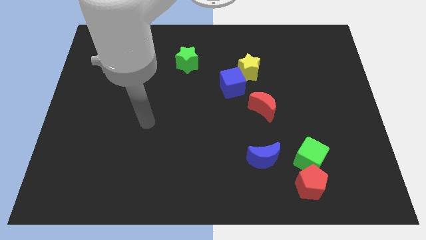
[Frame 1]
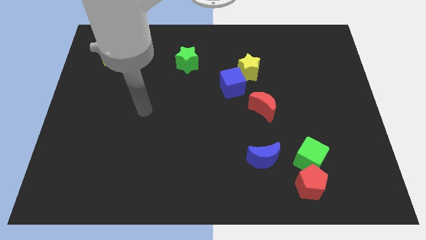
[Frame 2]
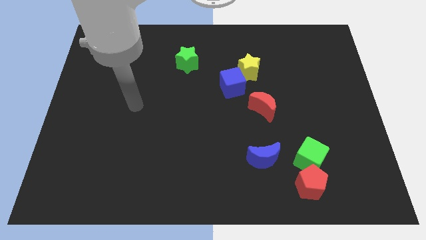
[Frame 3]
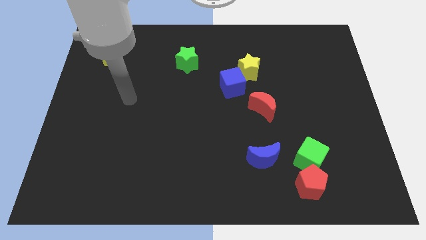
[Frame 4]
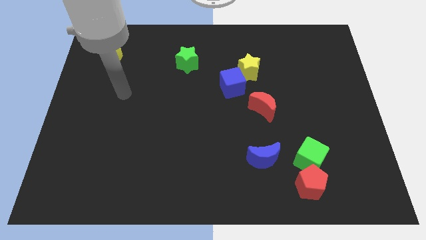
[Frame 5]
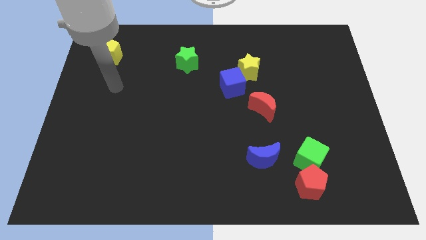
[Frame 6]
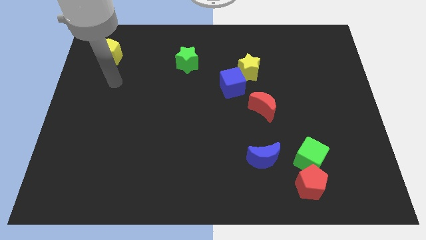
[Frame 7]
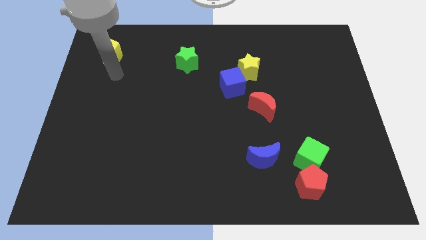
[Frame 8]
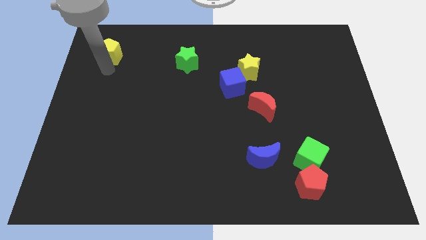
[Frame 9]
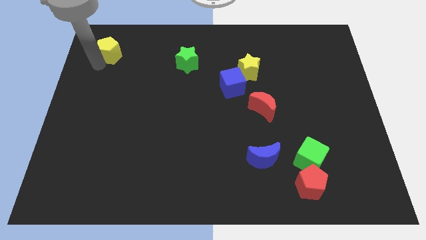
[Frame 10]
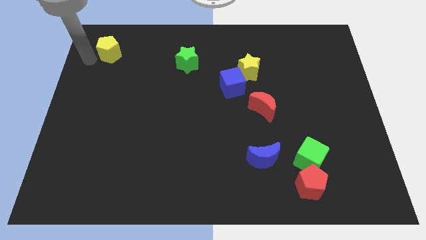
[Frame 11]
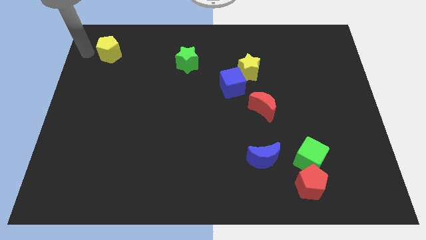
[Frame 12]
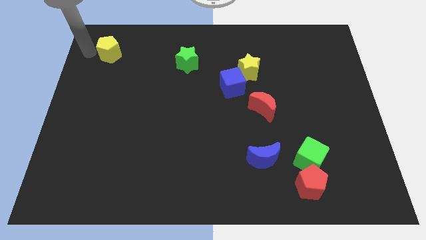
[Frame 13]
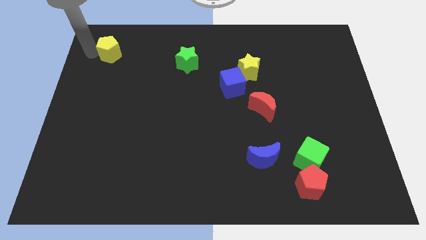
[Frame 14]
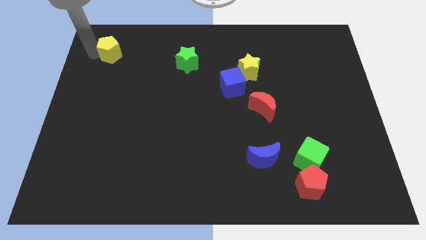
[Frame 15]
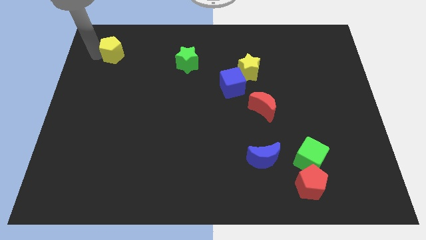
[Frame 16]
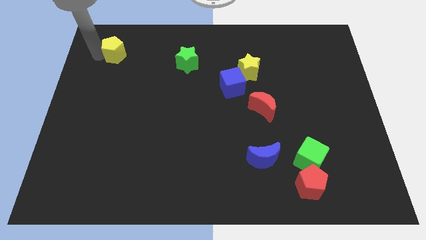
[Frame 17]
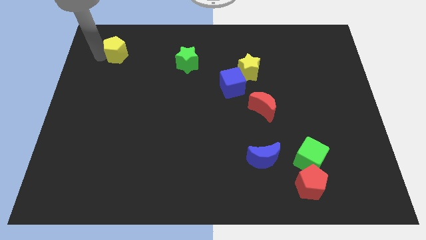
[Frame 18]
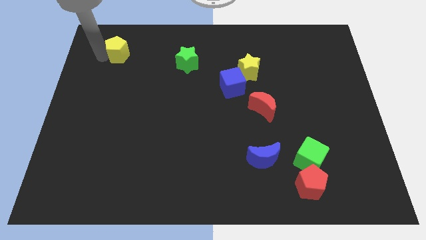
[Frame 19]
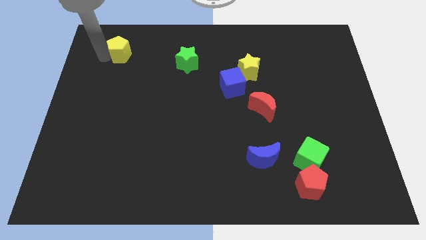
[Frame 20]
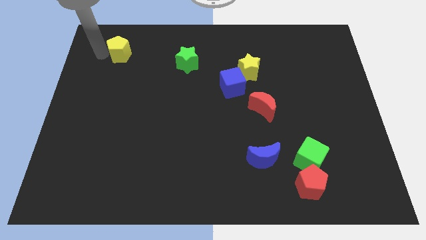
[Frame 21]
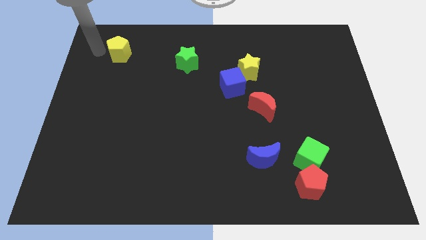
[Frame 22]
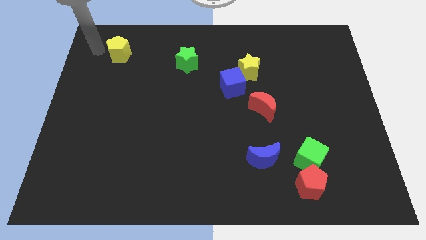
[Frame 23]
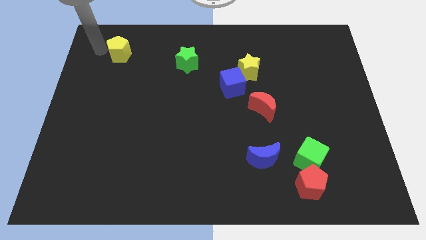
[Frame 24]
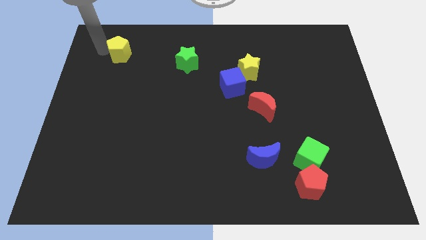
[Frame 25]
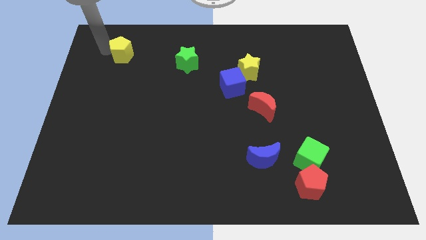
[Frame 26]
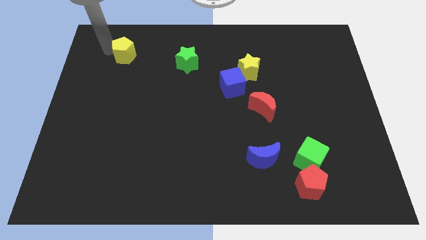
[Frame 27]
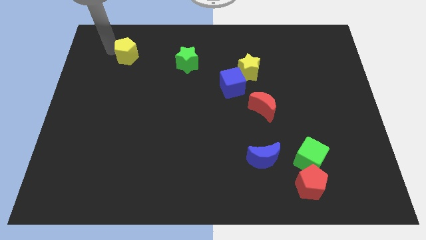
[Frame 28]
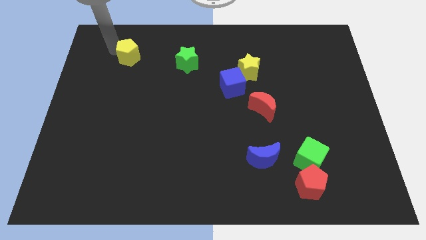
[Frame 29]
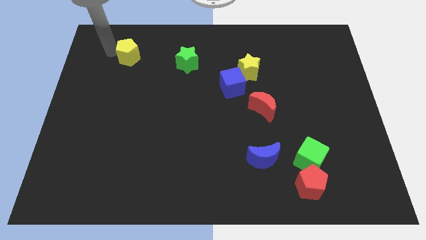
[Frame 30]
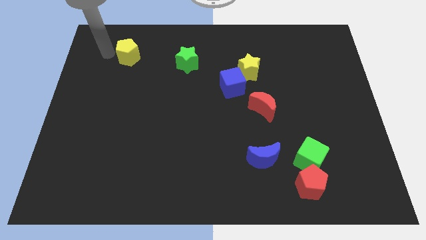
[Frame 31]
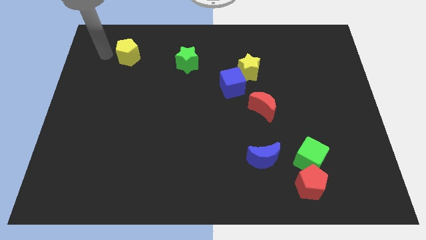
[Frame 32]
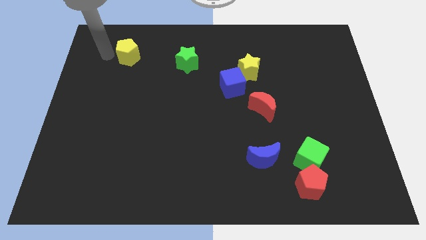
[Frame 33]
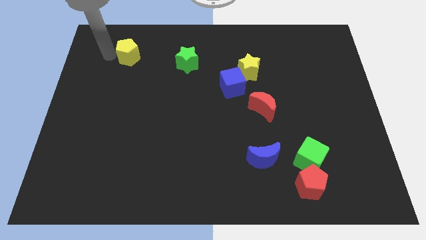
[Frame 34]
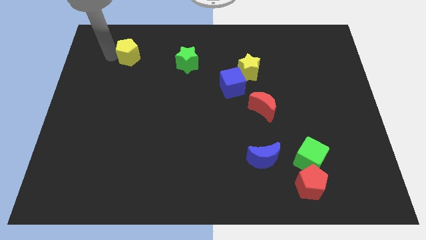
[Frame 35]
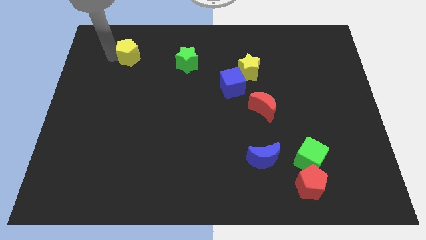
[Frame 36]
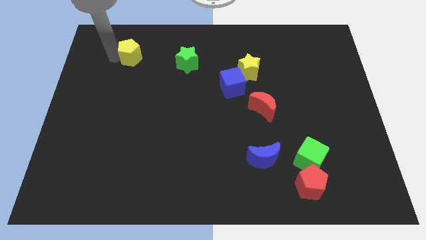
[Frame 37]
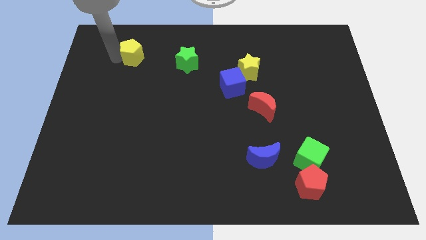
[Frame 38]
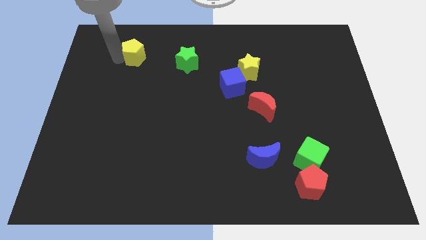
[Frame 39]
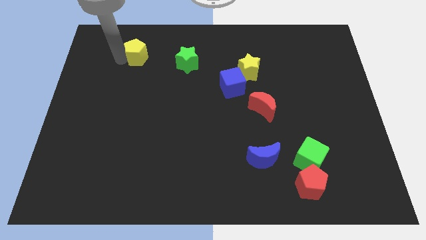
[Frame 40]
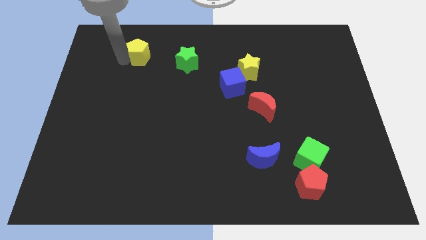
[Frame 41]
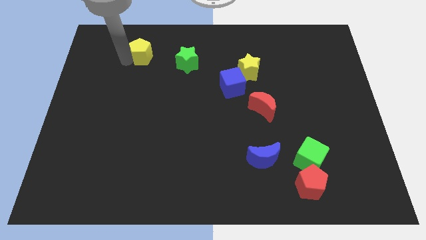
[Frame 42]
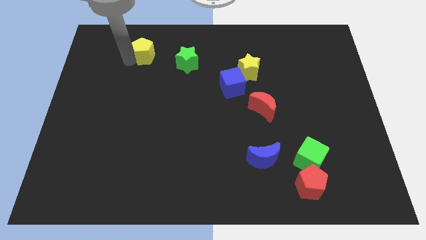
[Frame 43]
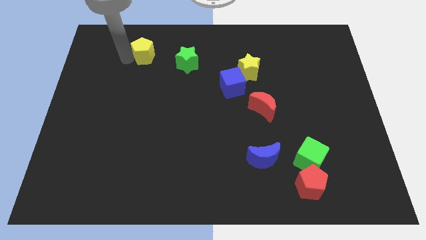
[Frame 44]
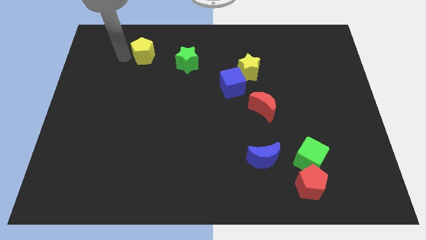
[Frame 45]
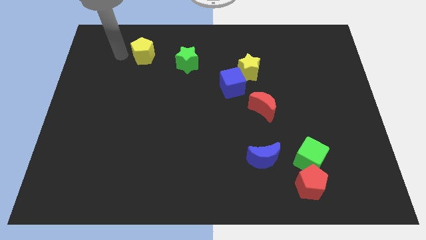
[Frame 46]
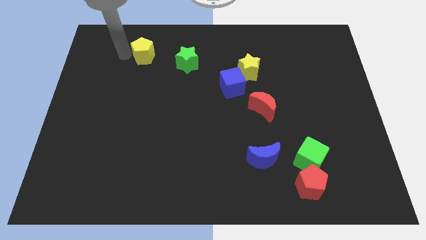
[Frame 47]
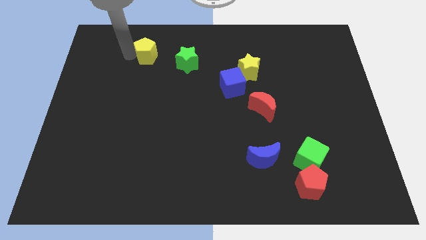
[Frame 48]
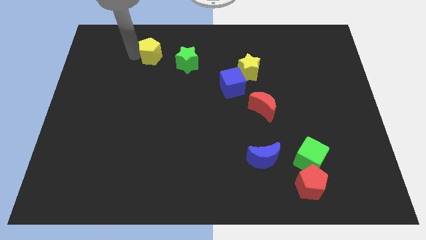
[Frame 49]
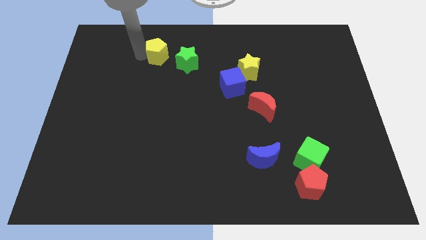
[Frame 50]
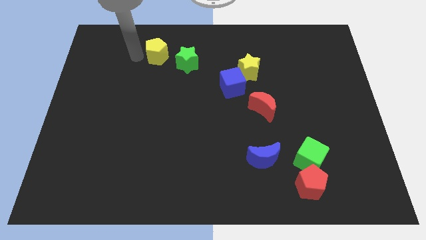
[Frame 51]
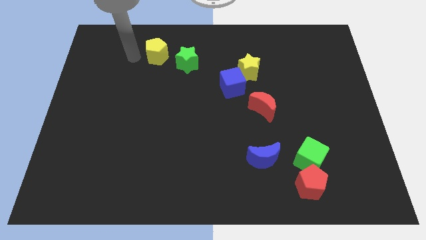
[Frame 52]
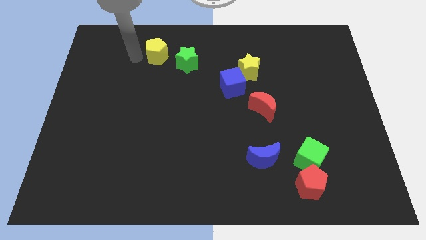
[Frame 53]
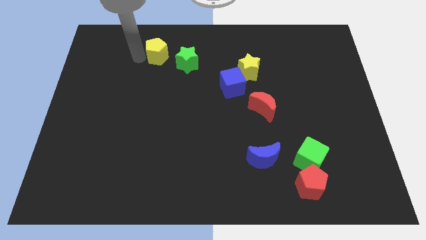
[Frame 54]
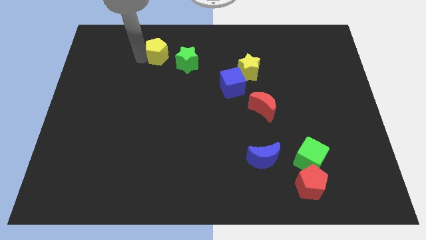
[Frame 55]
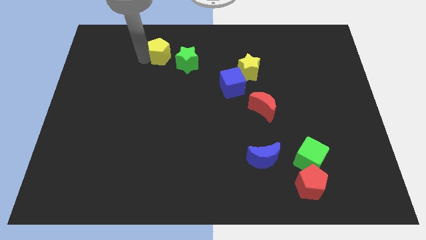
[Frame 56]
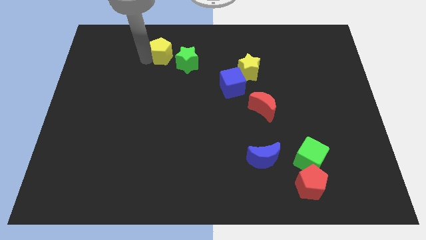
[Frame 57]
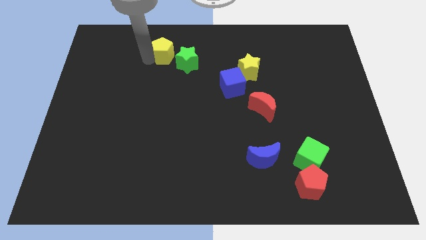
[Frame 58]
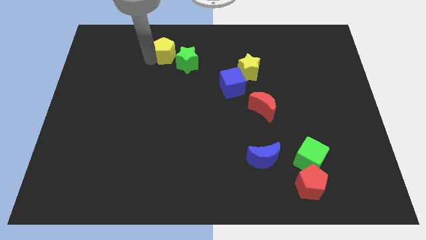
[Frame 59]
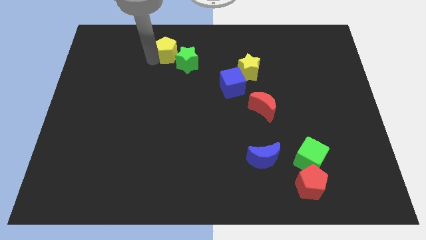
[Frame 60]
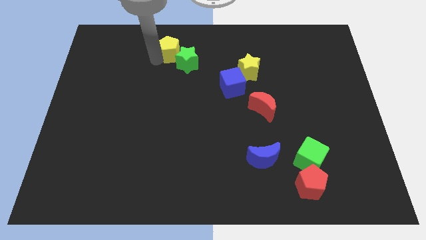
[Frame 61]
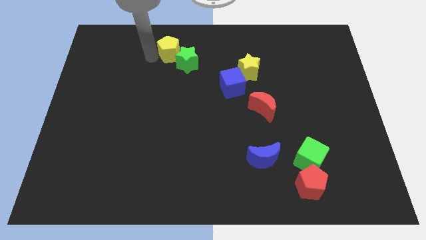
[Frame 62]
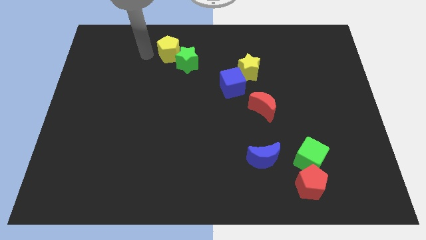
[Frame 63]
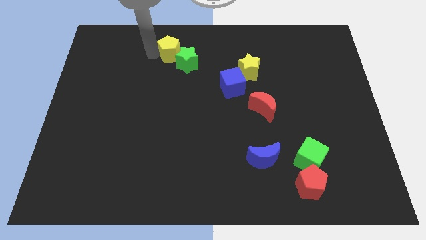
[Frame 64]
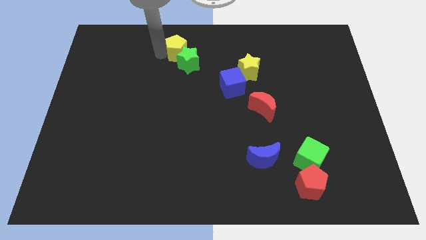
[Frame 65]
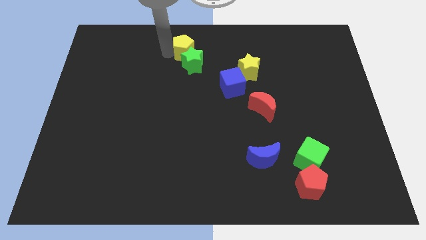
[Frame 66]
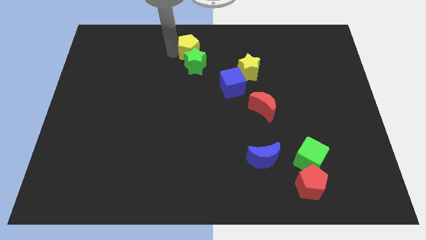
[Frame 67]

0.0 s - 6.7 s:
move the yellow pentagon right

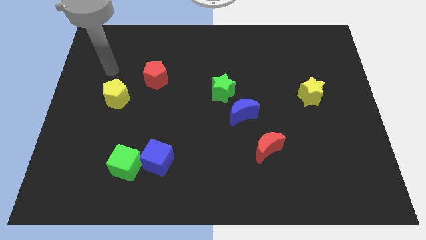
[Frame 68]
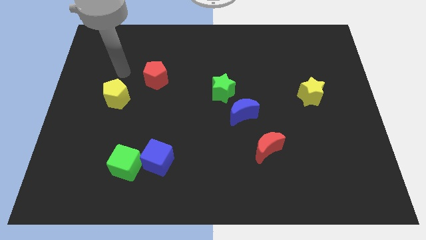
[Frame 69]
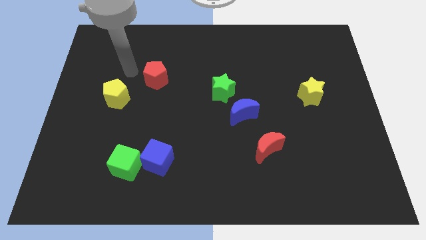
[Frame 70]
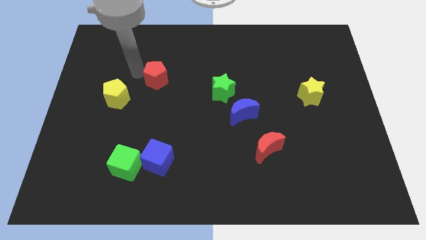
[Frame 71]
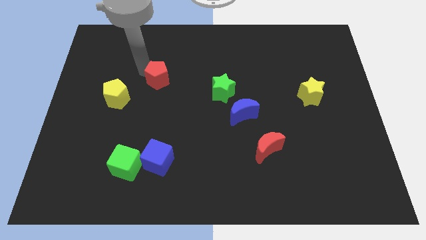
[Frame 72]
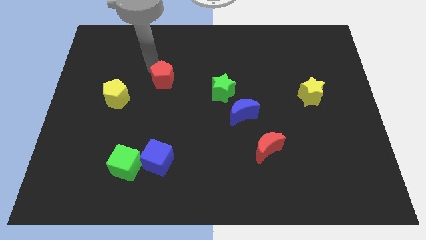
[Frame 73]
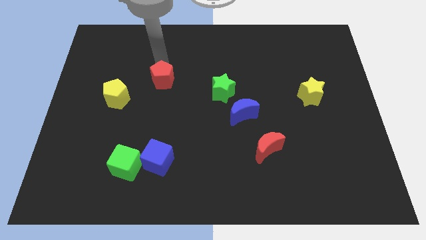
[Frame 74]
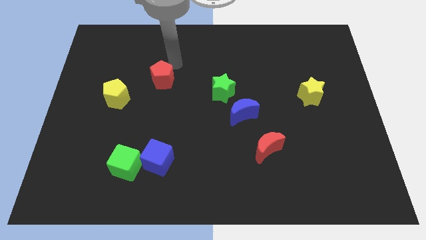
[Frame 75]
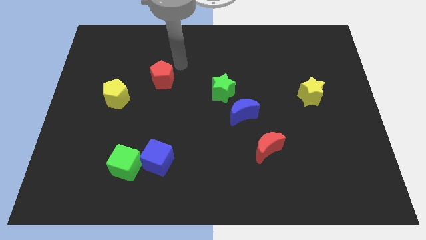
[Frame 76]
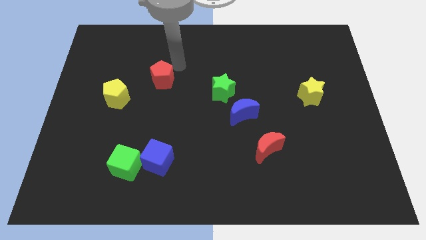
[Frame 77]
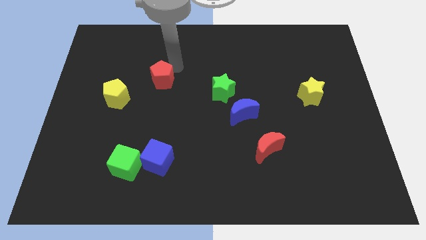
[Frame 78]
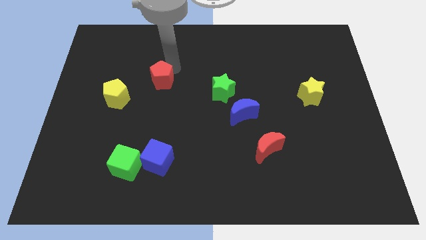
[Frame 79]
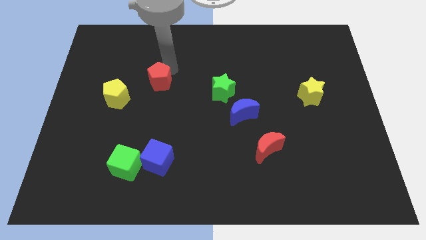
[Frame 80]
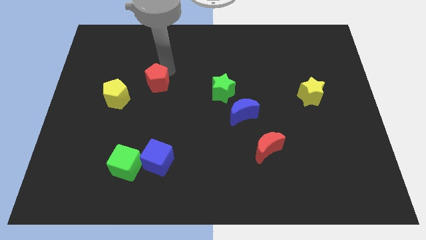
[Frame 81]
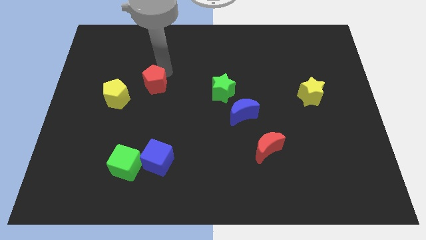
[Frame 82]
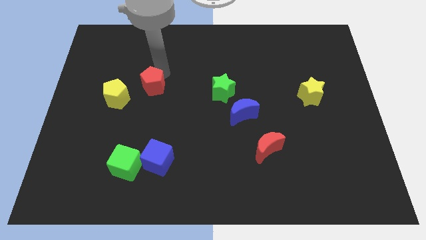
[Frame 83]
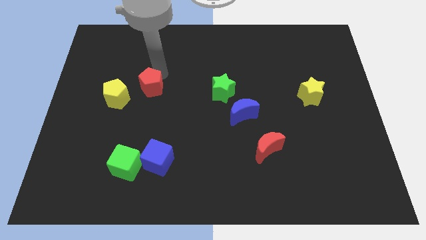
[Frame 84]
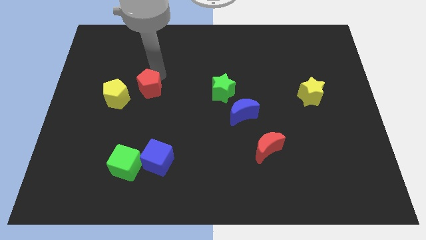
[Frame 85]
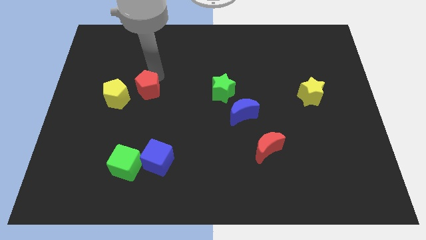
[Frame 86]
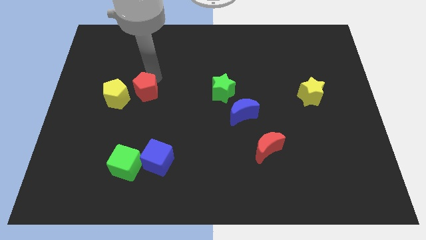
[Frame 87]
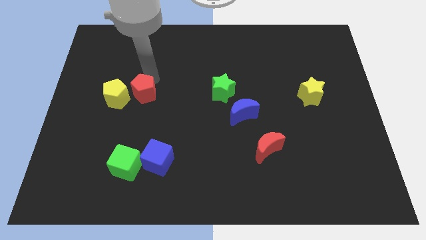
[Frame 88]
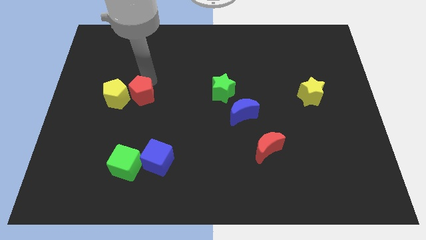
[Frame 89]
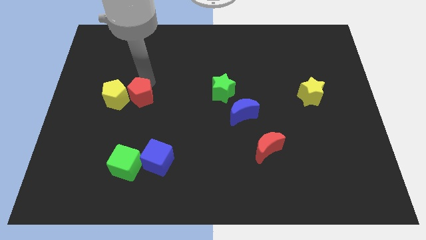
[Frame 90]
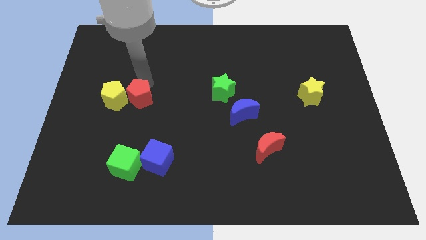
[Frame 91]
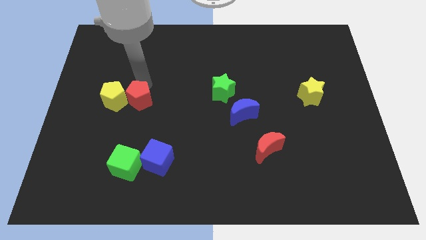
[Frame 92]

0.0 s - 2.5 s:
move the red pentagon a little bit diagonally downwards and left
